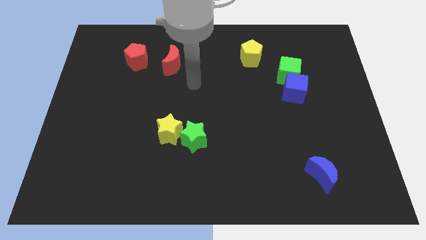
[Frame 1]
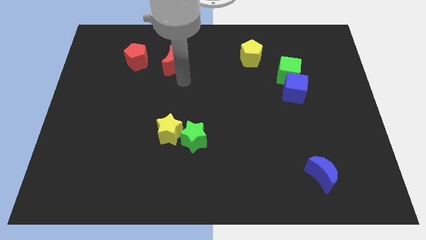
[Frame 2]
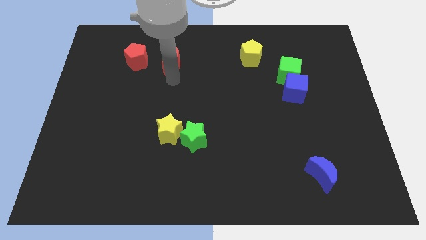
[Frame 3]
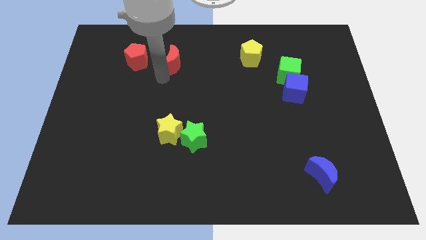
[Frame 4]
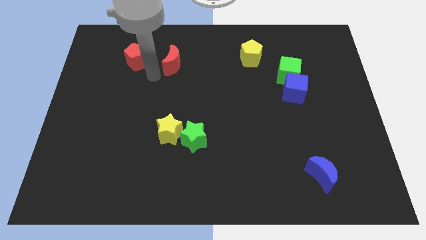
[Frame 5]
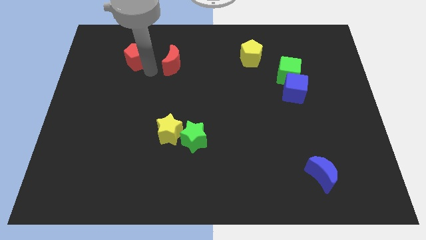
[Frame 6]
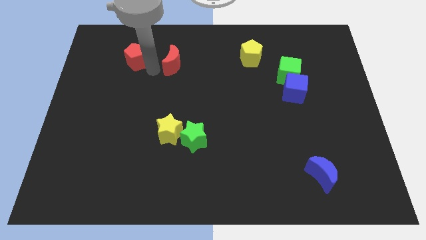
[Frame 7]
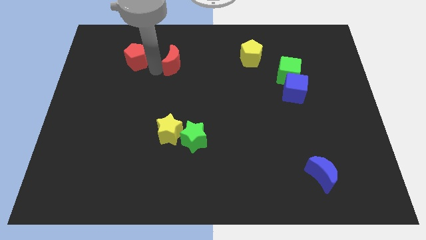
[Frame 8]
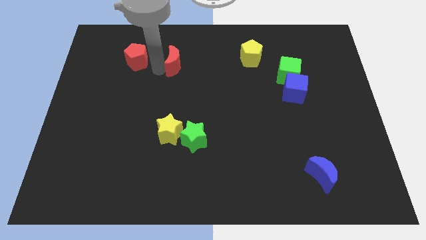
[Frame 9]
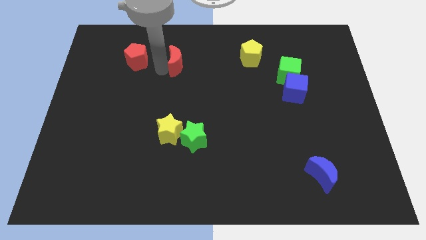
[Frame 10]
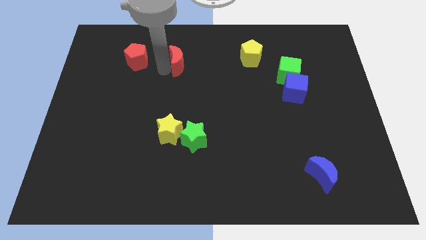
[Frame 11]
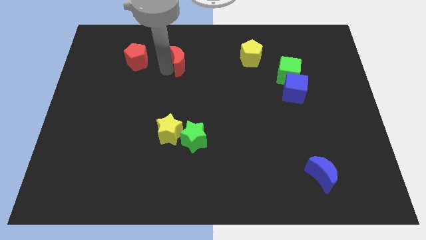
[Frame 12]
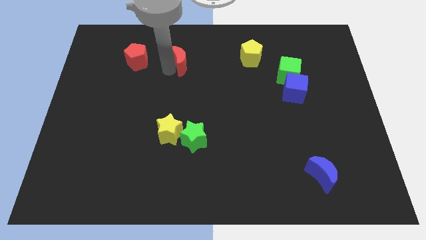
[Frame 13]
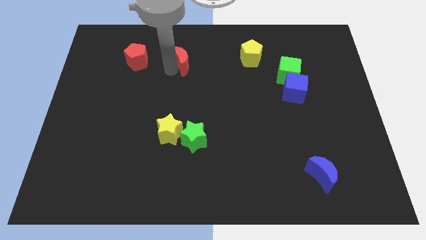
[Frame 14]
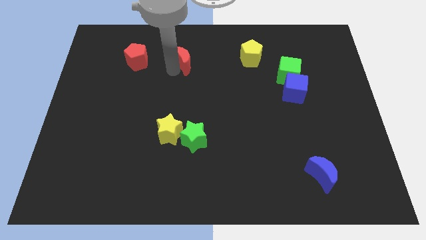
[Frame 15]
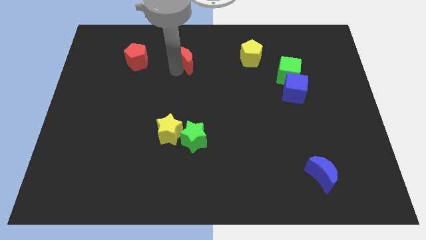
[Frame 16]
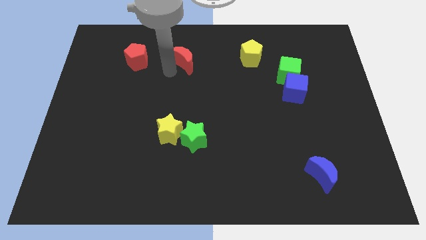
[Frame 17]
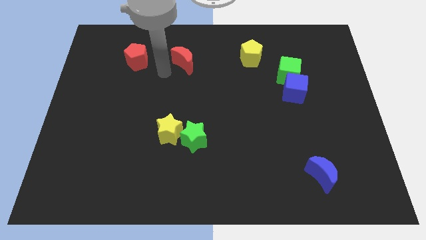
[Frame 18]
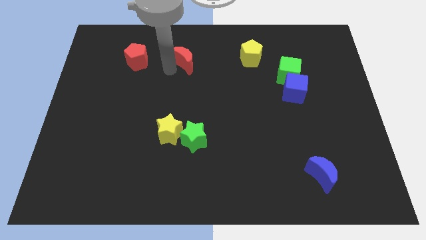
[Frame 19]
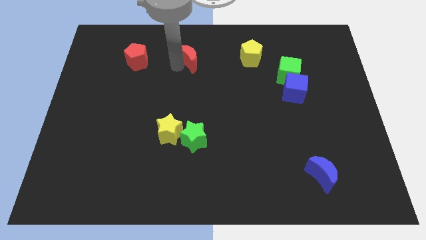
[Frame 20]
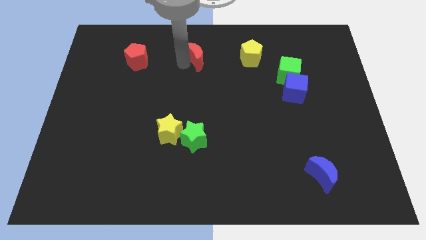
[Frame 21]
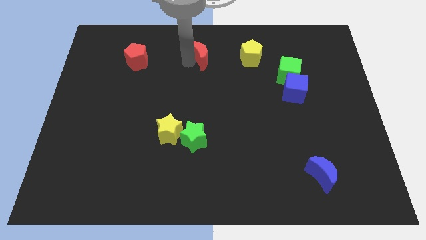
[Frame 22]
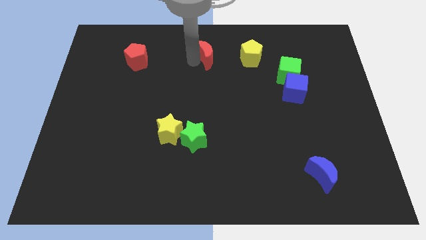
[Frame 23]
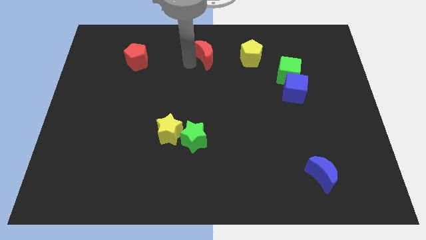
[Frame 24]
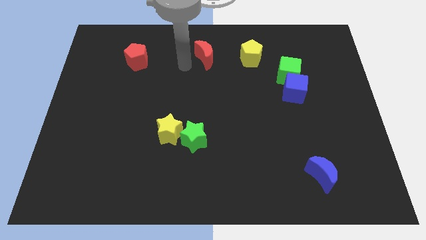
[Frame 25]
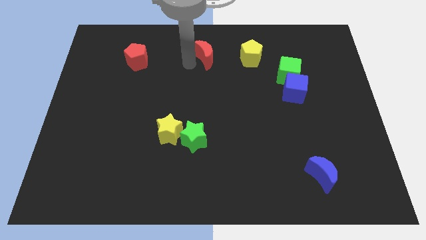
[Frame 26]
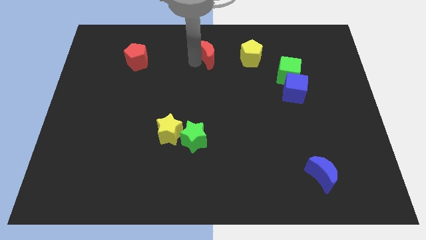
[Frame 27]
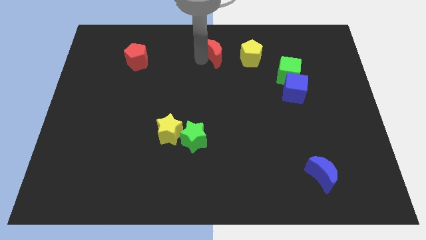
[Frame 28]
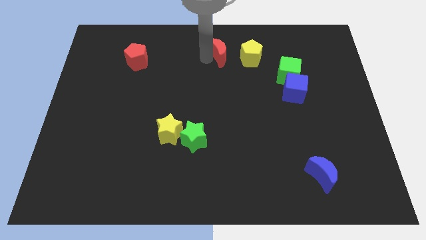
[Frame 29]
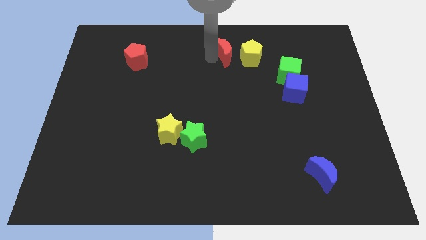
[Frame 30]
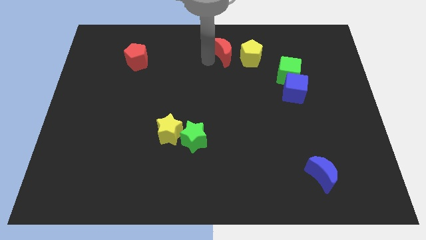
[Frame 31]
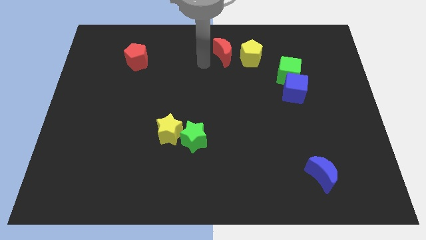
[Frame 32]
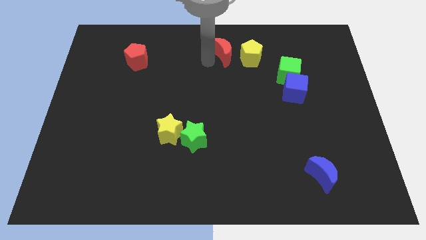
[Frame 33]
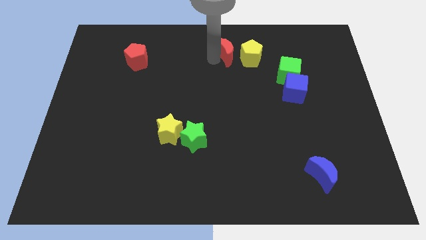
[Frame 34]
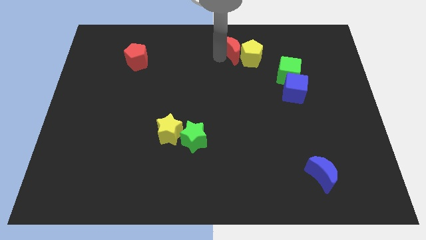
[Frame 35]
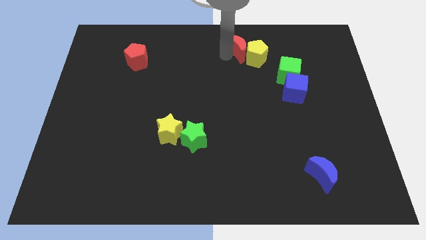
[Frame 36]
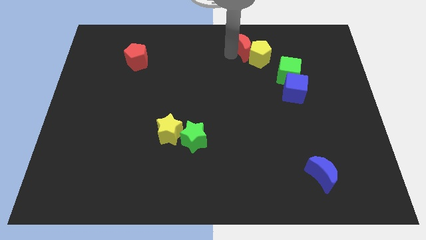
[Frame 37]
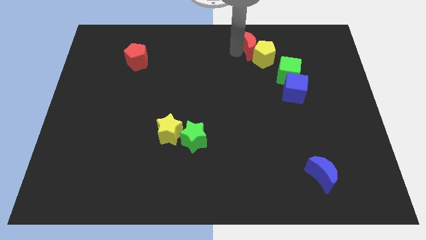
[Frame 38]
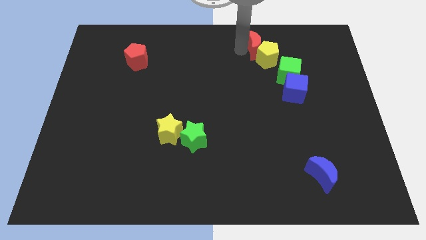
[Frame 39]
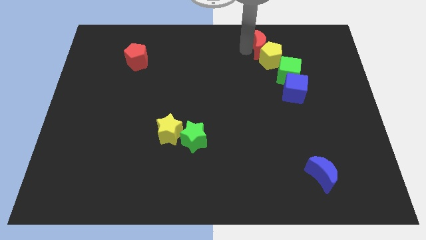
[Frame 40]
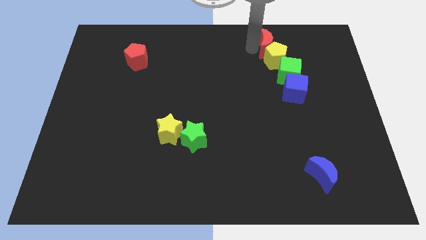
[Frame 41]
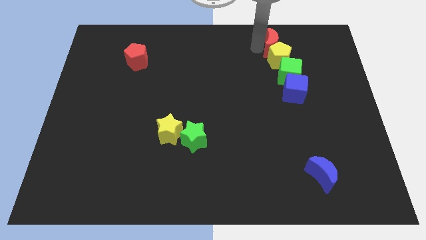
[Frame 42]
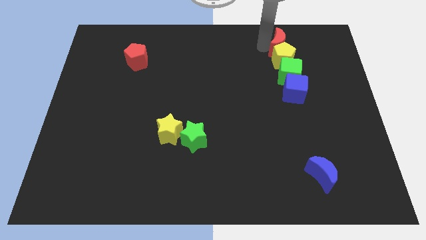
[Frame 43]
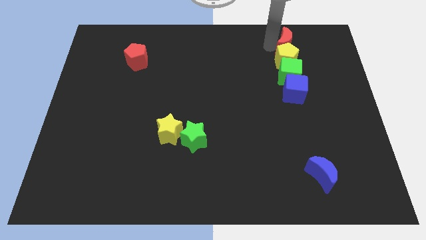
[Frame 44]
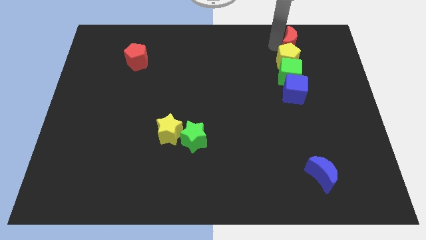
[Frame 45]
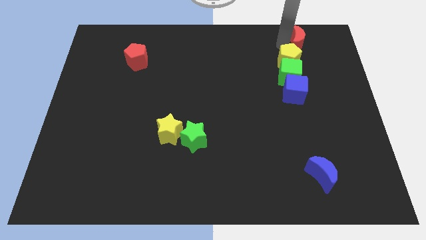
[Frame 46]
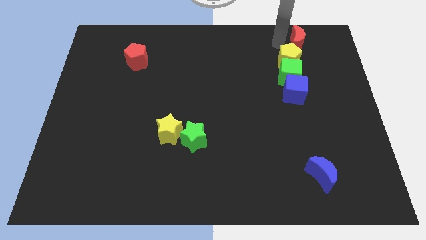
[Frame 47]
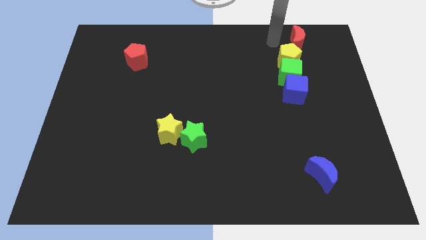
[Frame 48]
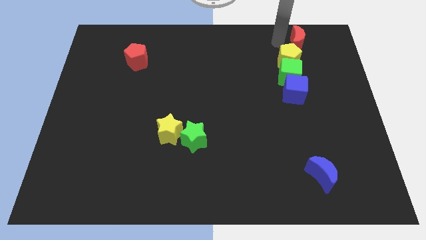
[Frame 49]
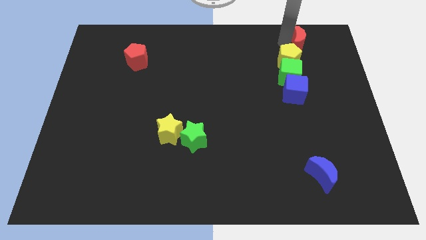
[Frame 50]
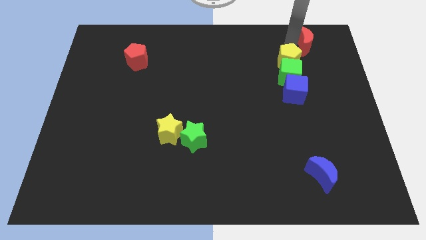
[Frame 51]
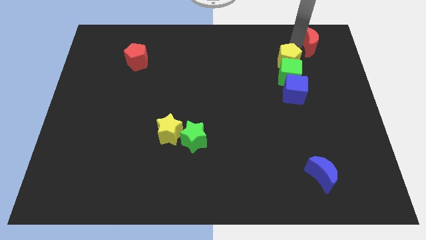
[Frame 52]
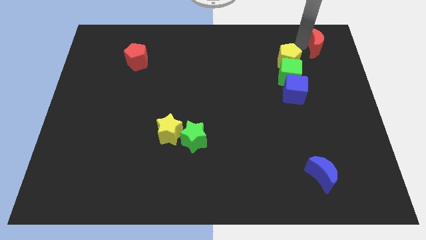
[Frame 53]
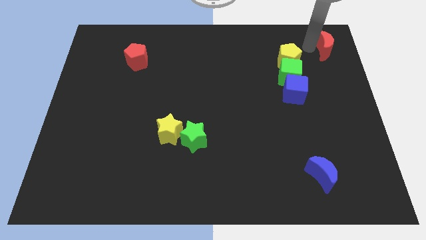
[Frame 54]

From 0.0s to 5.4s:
move the red moon to the top right corner
